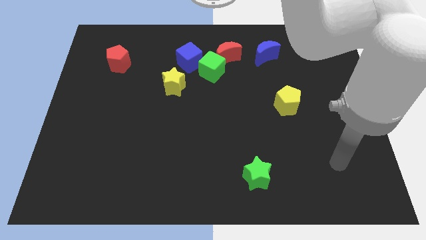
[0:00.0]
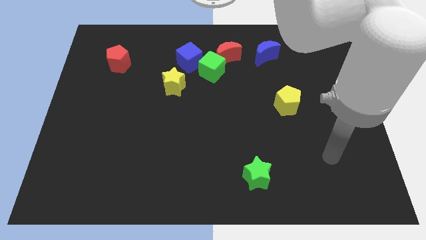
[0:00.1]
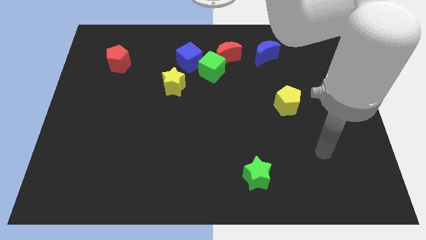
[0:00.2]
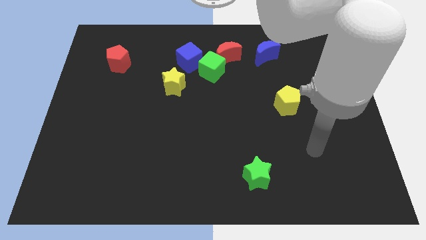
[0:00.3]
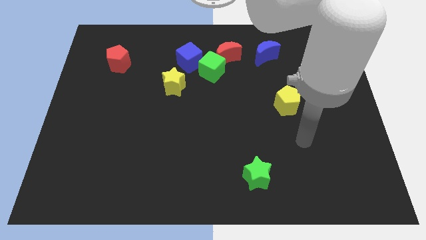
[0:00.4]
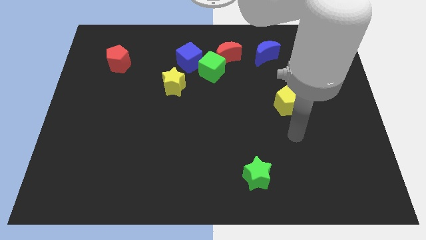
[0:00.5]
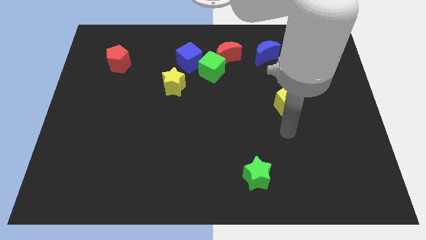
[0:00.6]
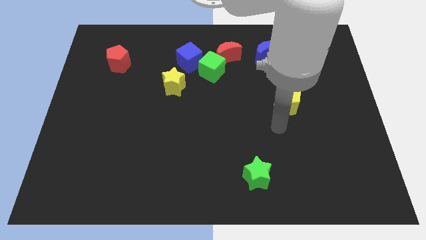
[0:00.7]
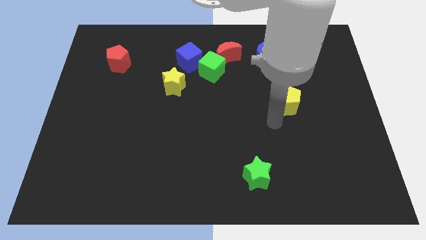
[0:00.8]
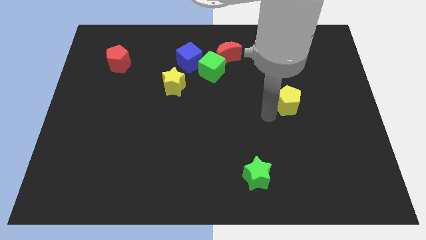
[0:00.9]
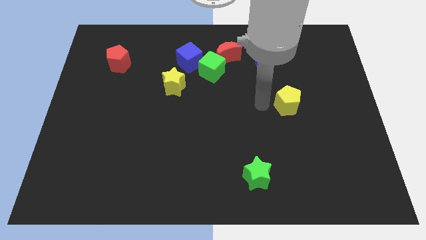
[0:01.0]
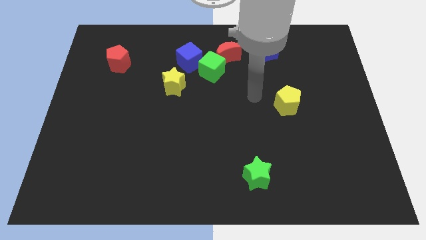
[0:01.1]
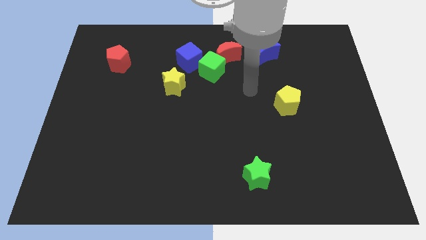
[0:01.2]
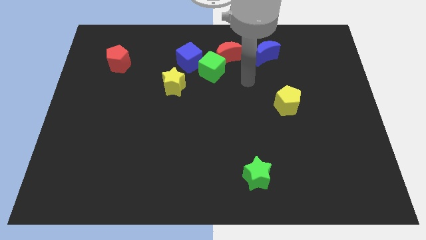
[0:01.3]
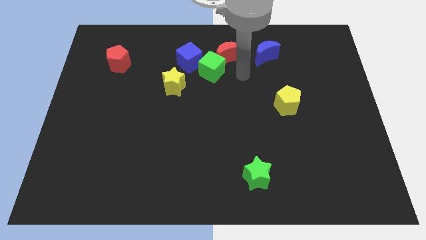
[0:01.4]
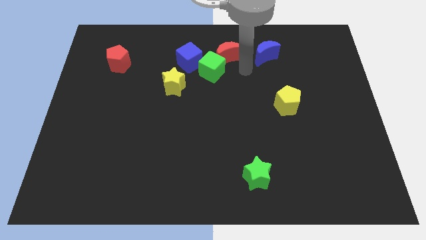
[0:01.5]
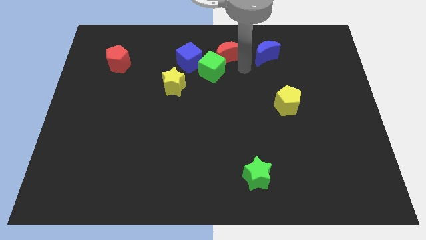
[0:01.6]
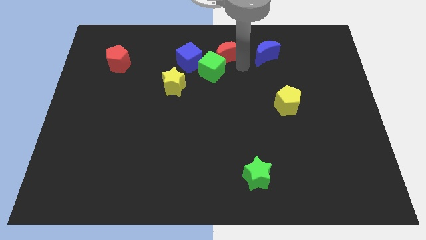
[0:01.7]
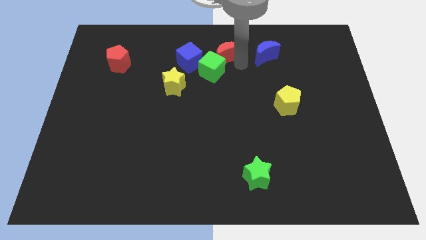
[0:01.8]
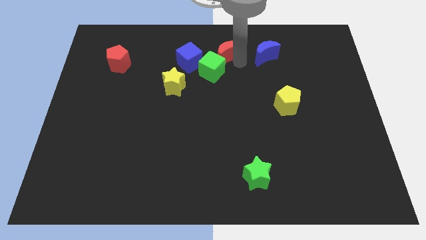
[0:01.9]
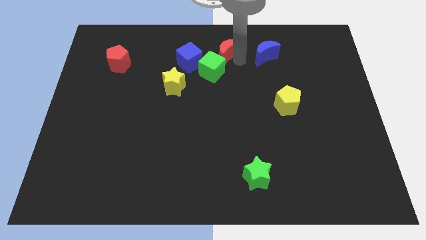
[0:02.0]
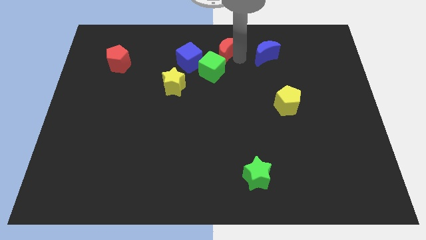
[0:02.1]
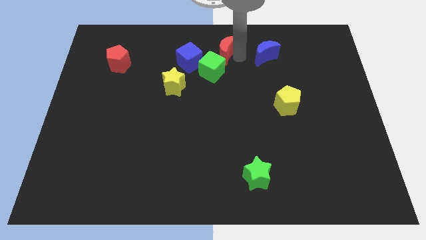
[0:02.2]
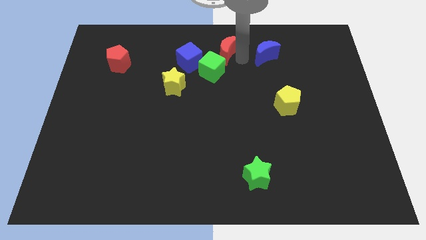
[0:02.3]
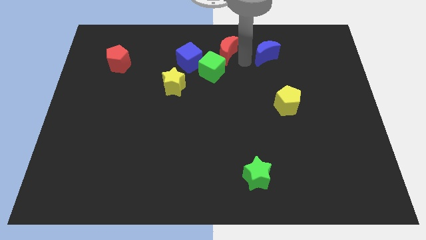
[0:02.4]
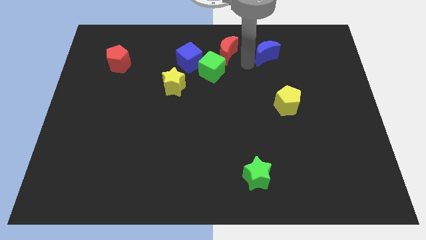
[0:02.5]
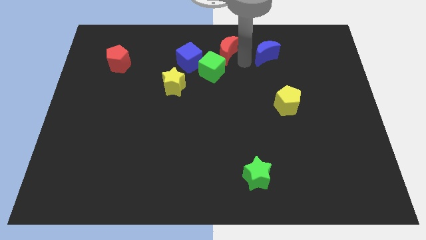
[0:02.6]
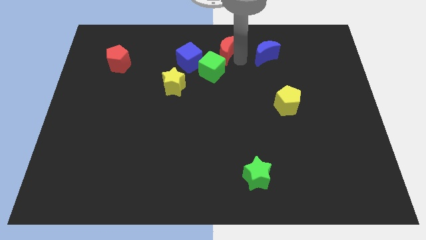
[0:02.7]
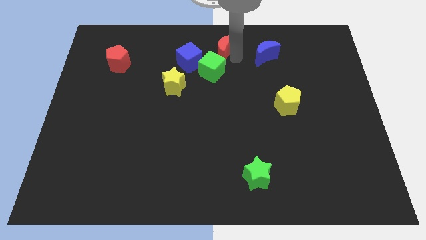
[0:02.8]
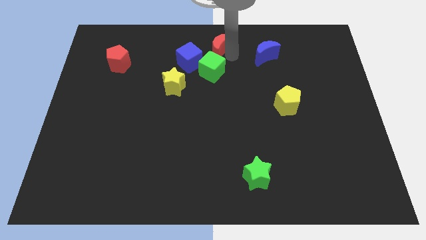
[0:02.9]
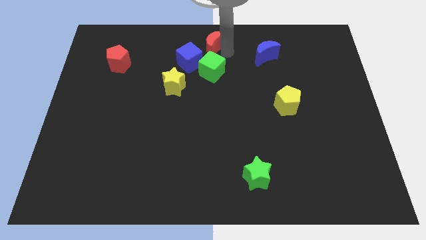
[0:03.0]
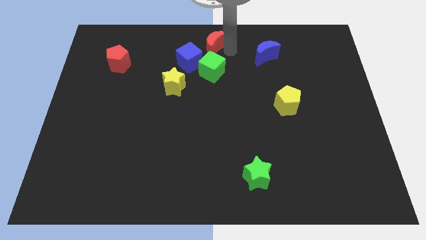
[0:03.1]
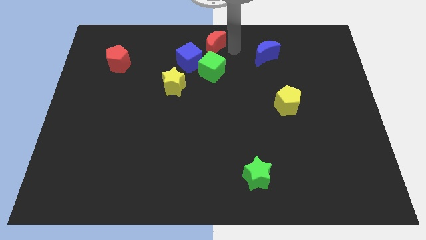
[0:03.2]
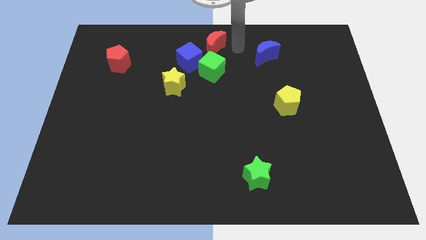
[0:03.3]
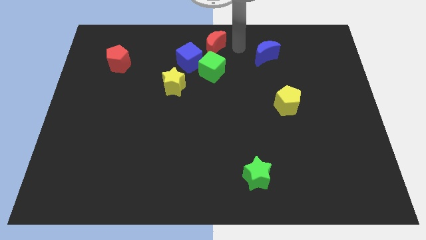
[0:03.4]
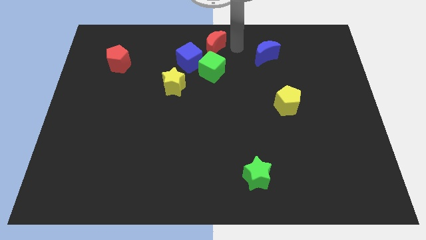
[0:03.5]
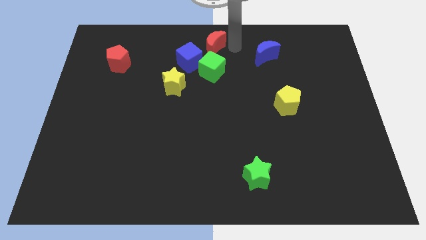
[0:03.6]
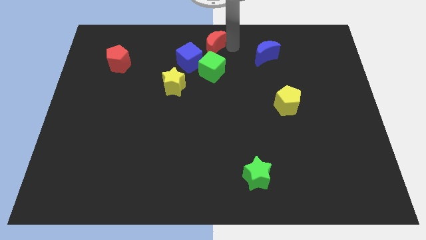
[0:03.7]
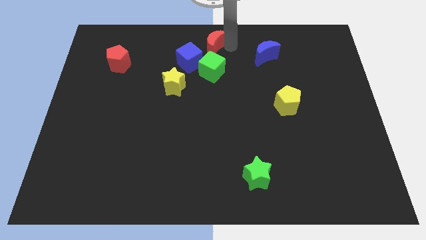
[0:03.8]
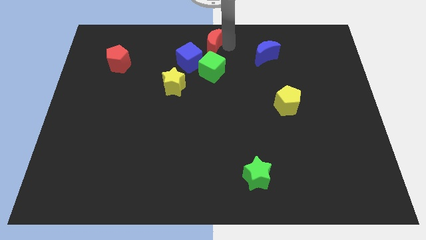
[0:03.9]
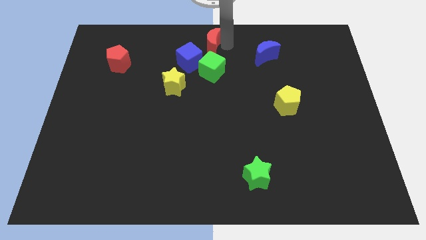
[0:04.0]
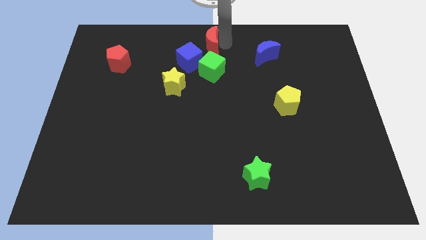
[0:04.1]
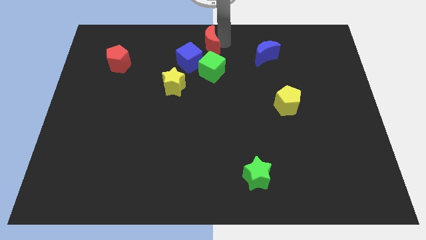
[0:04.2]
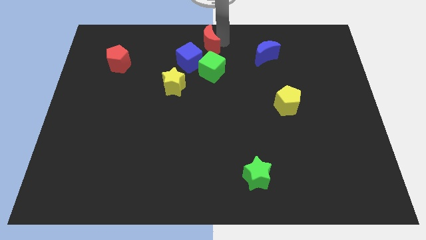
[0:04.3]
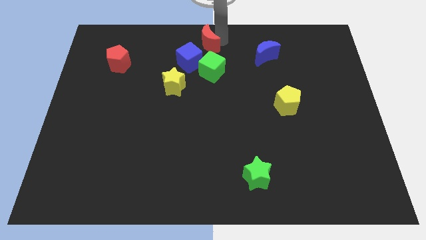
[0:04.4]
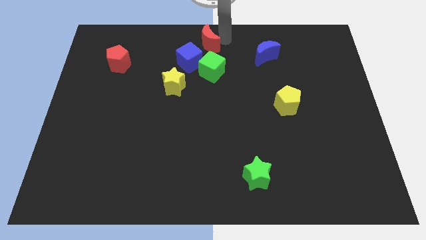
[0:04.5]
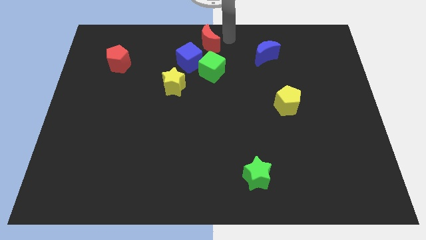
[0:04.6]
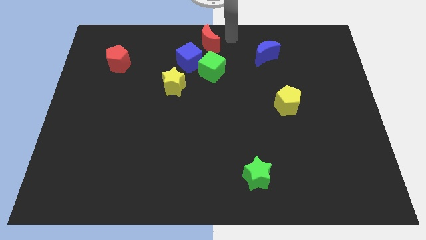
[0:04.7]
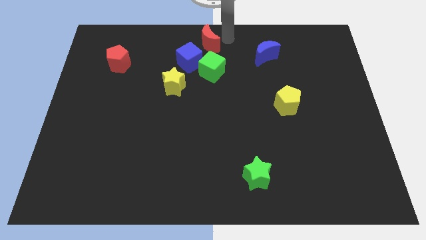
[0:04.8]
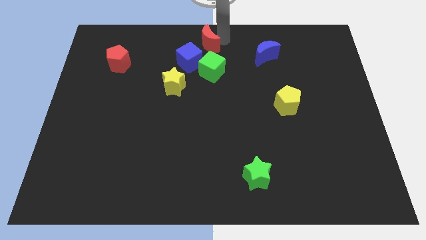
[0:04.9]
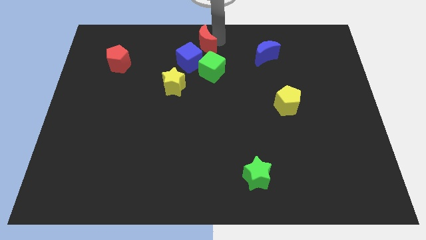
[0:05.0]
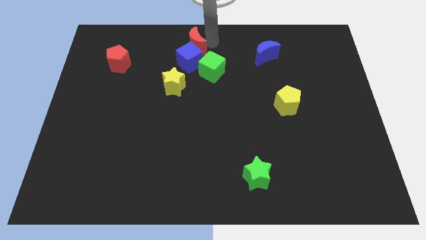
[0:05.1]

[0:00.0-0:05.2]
slide the red moon a bit left

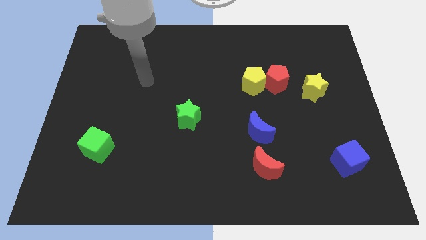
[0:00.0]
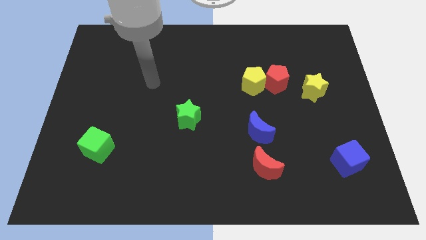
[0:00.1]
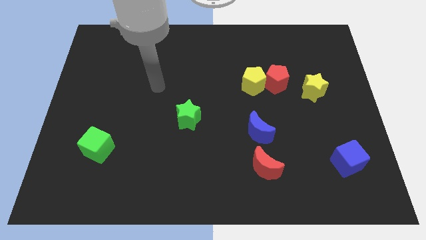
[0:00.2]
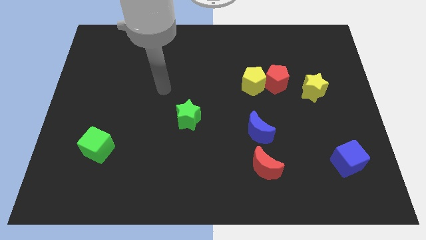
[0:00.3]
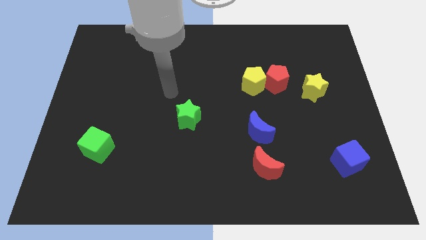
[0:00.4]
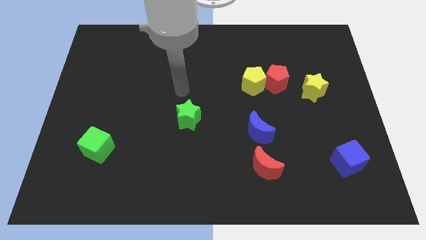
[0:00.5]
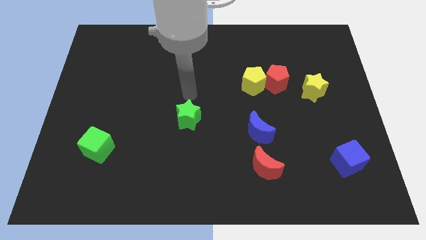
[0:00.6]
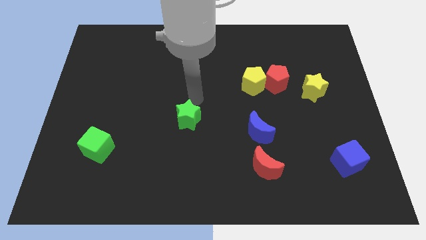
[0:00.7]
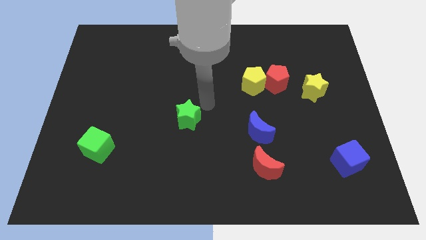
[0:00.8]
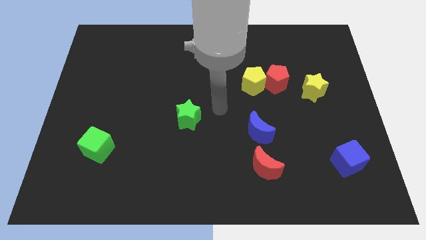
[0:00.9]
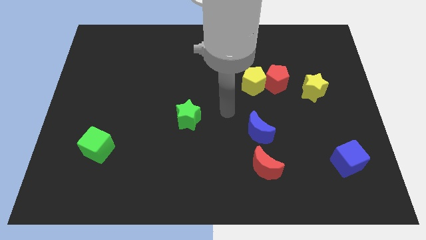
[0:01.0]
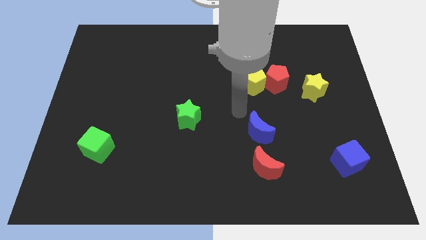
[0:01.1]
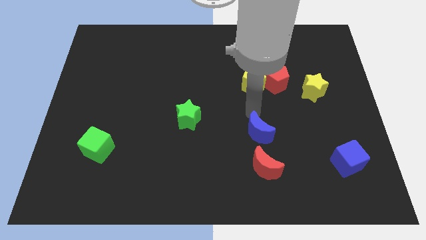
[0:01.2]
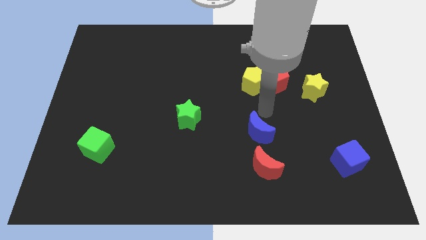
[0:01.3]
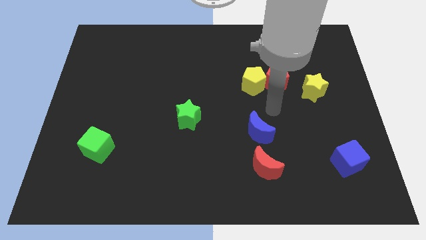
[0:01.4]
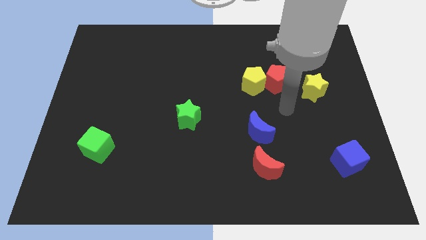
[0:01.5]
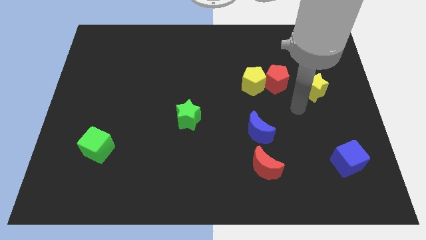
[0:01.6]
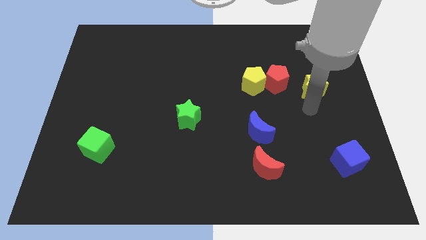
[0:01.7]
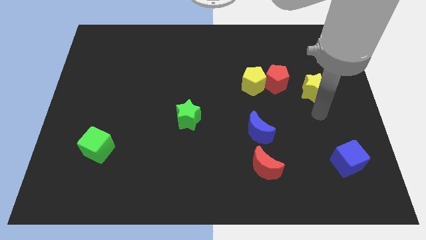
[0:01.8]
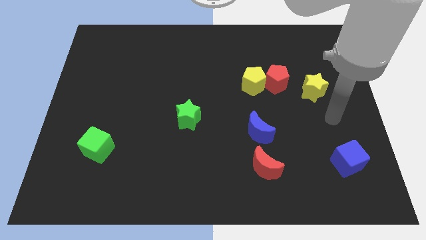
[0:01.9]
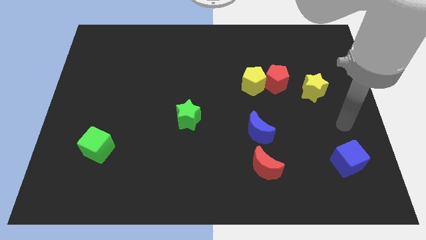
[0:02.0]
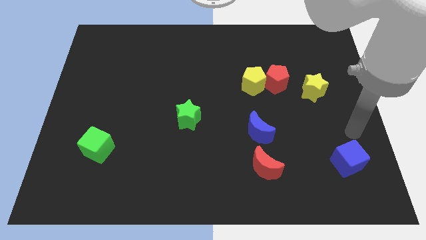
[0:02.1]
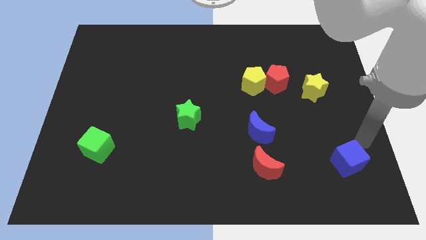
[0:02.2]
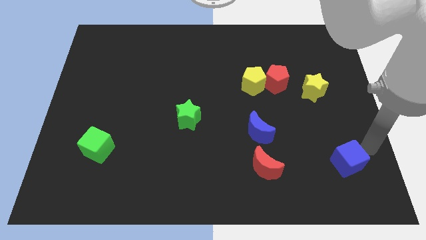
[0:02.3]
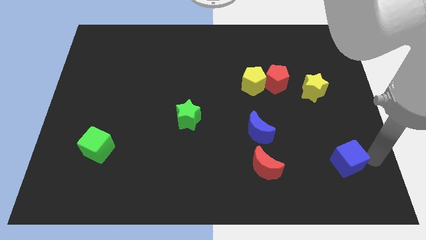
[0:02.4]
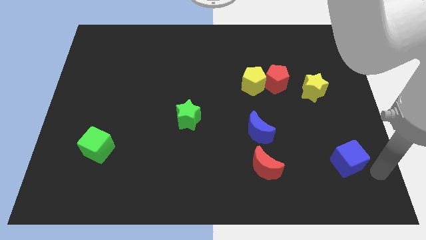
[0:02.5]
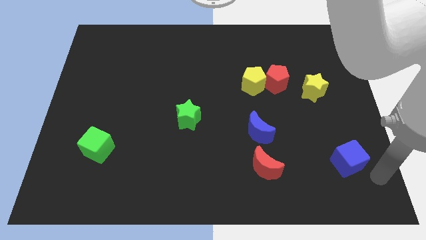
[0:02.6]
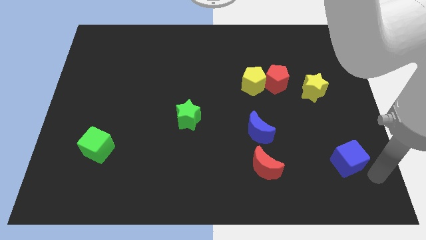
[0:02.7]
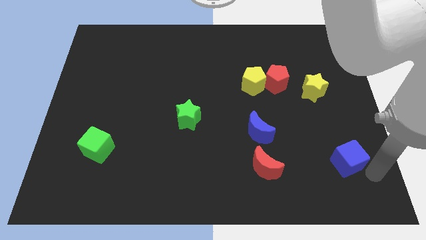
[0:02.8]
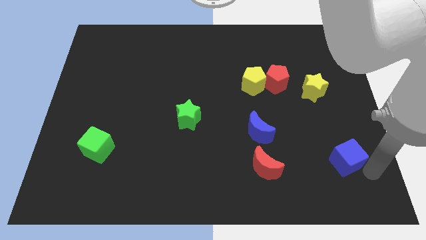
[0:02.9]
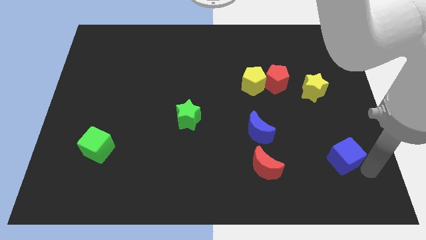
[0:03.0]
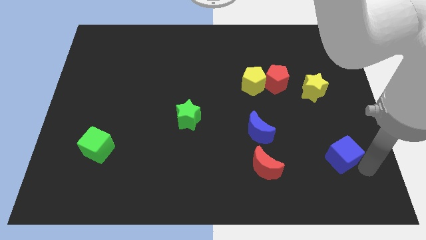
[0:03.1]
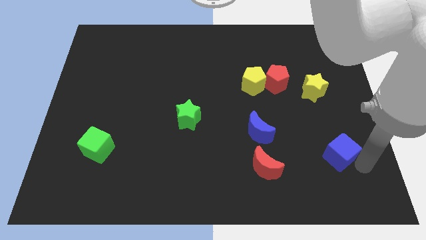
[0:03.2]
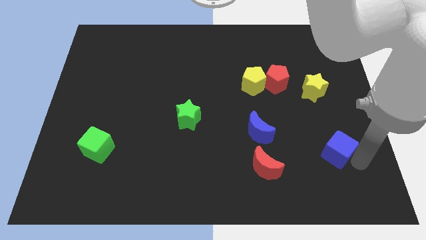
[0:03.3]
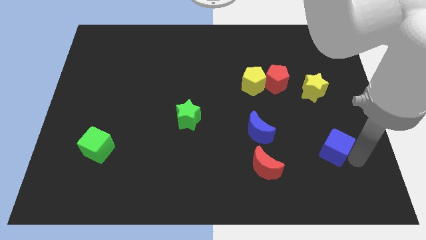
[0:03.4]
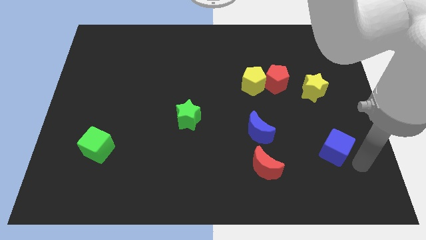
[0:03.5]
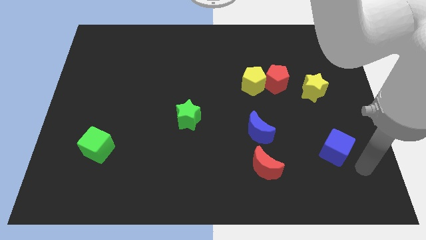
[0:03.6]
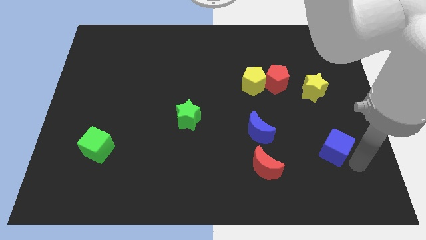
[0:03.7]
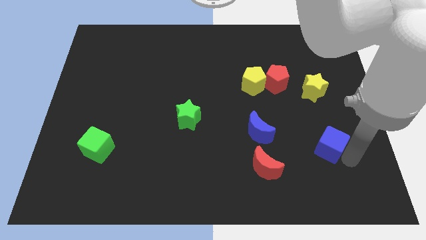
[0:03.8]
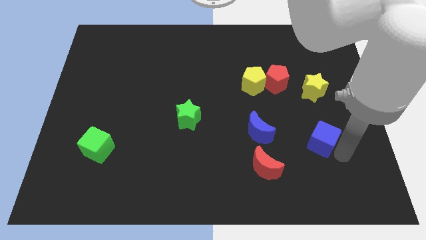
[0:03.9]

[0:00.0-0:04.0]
slide the blue cube slightly up and left
